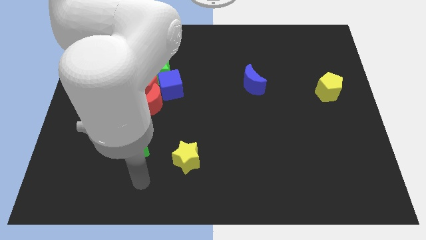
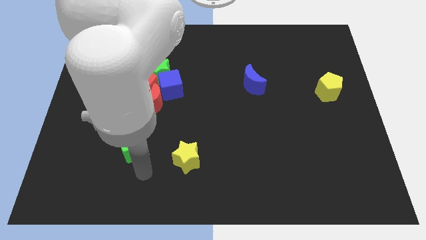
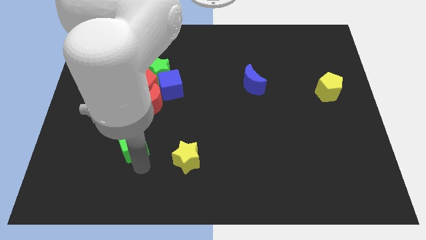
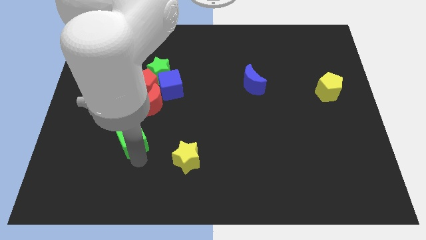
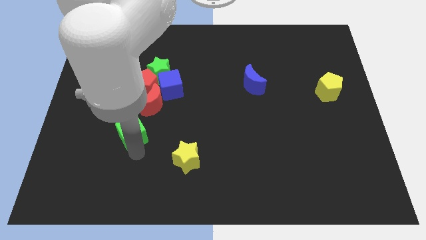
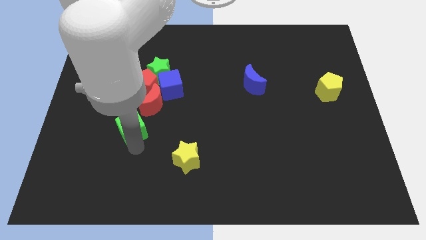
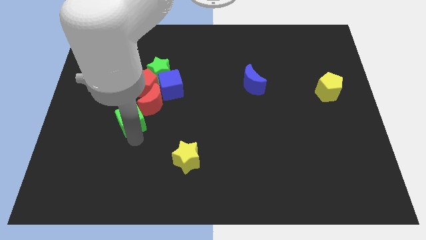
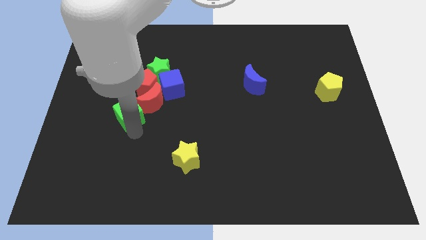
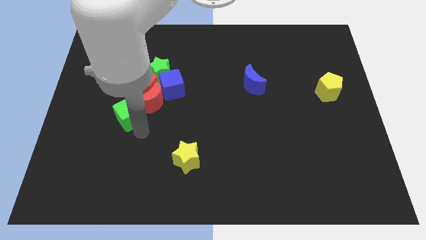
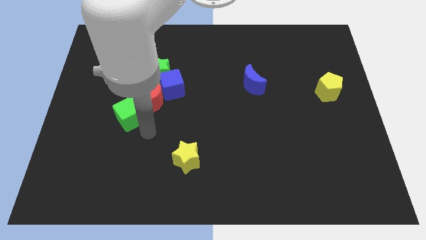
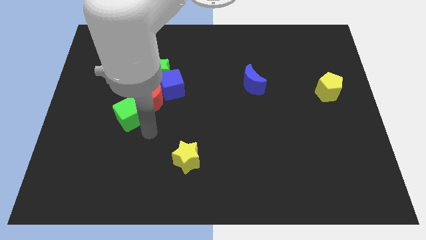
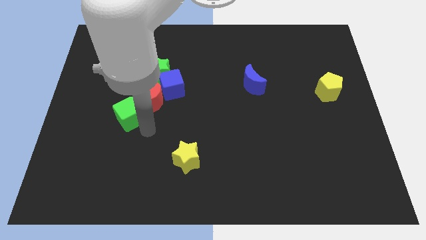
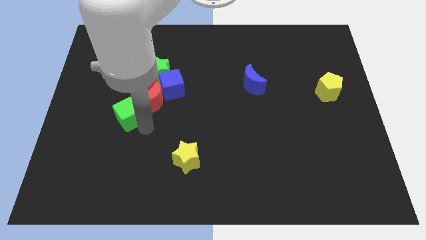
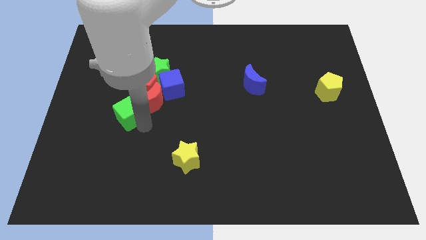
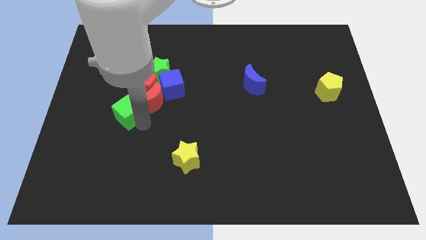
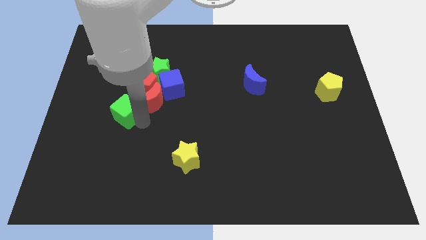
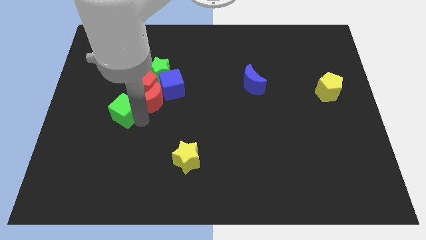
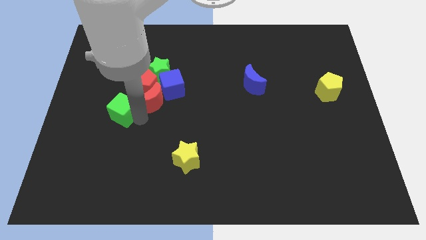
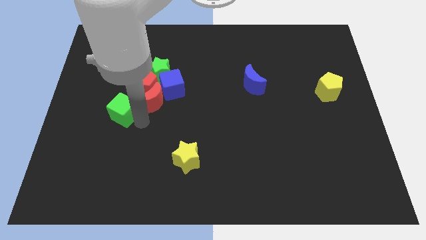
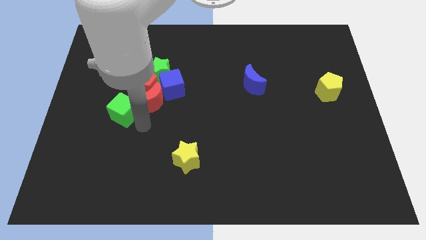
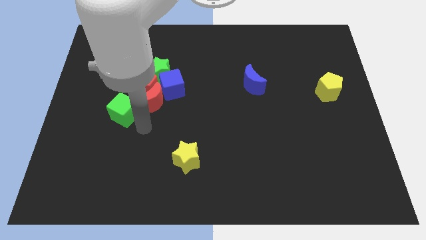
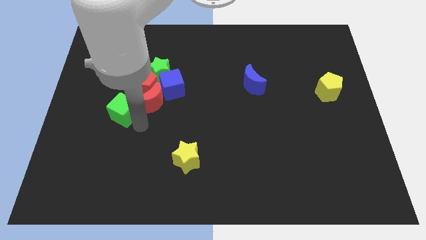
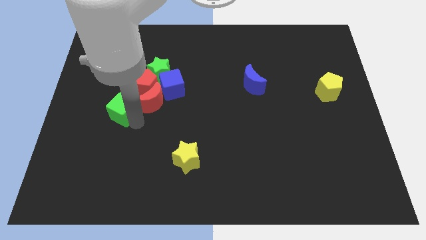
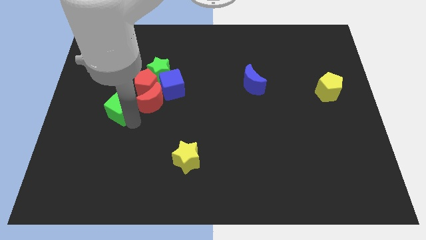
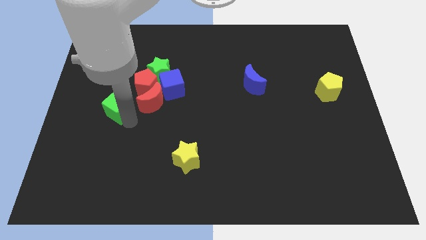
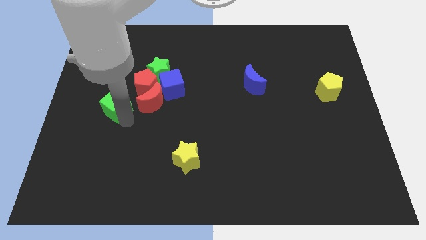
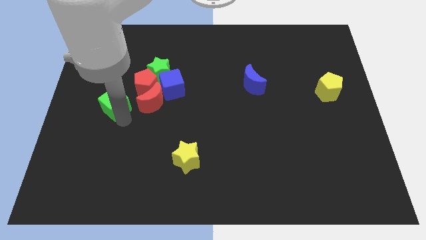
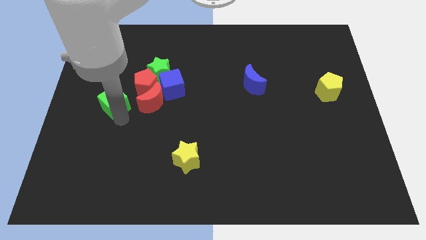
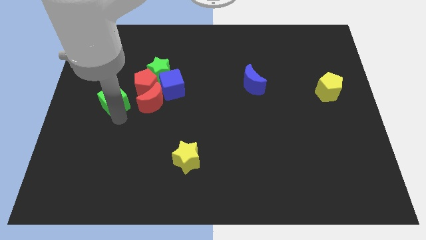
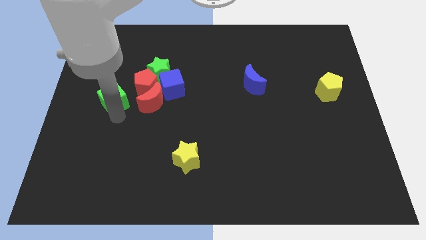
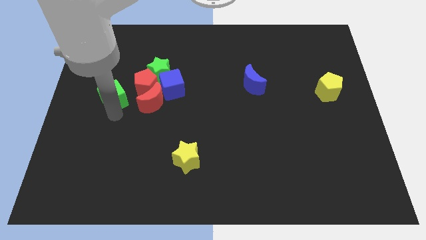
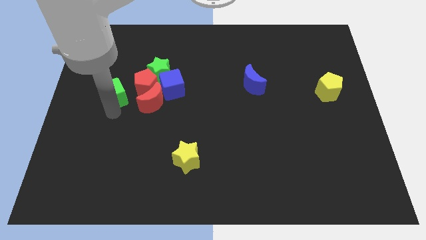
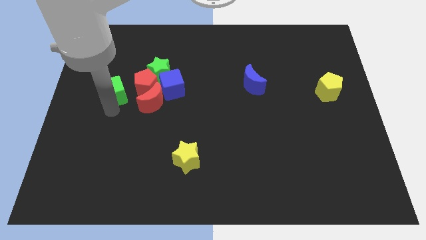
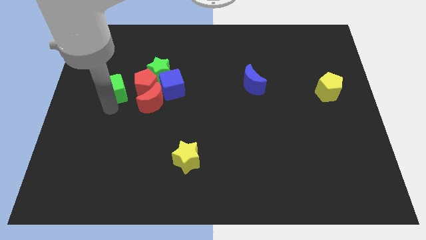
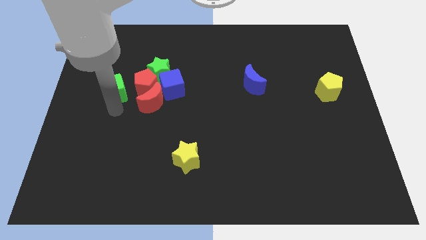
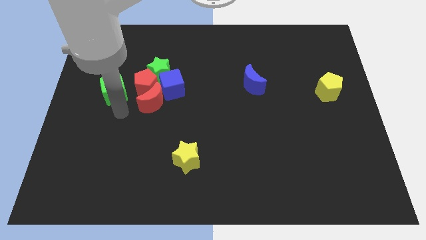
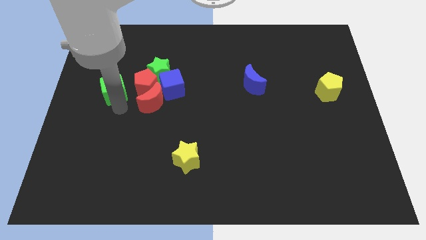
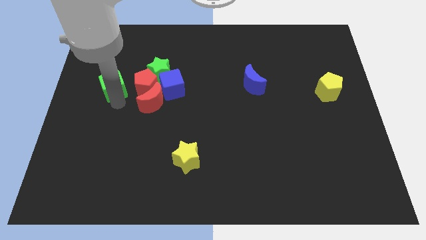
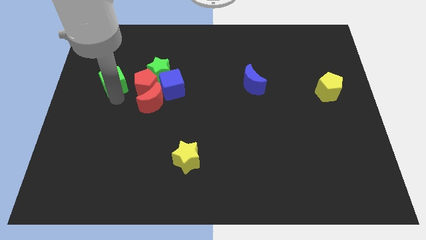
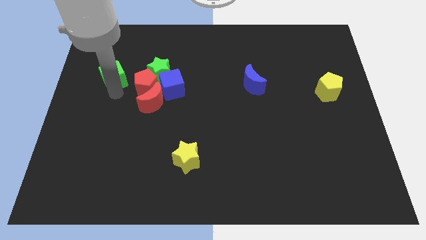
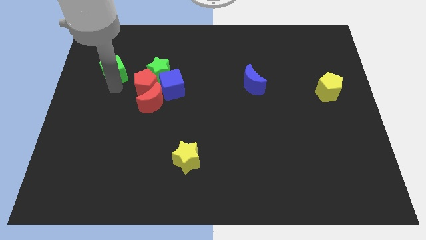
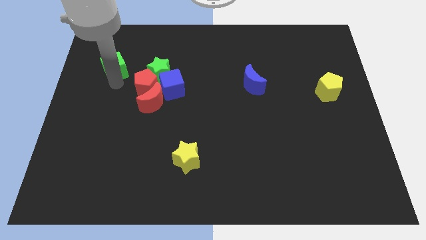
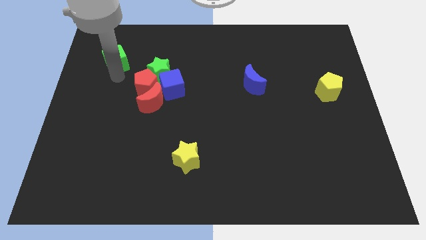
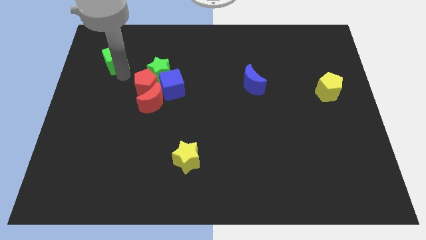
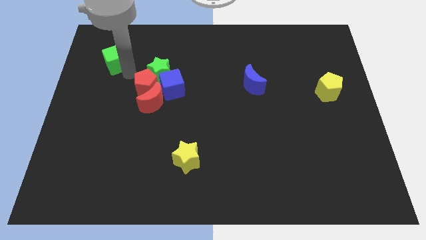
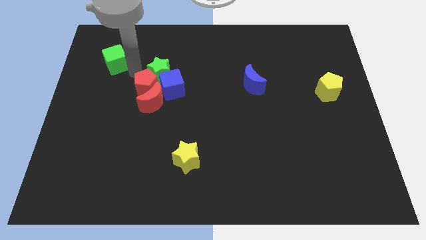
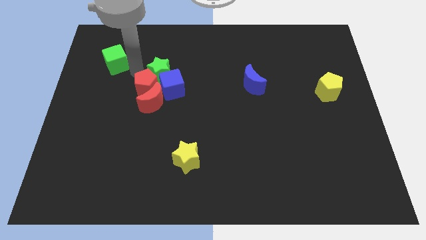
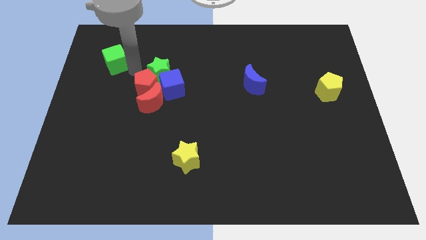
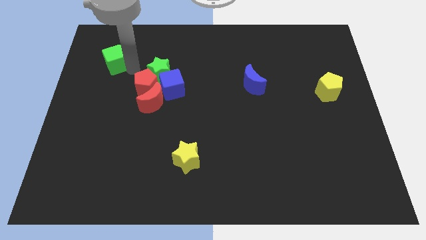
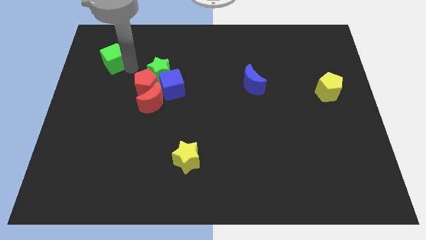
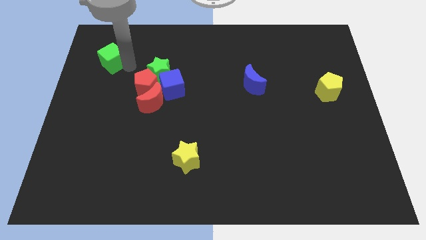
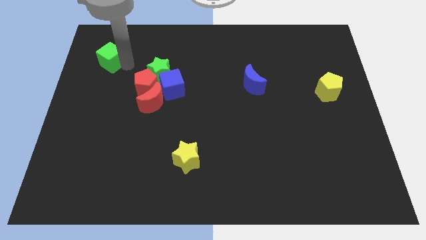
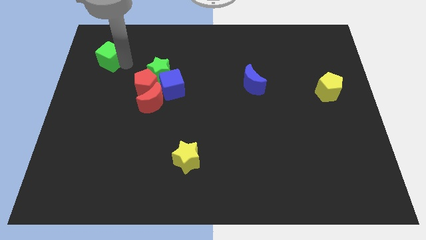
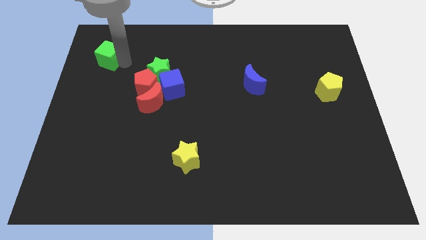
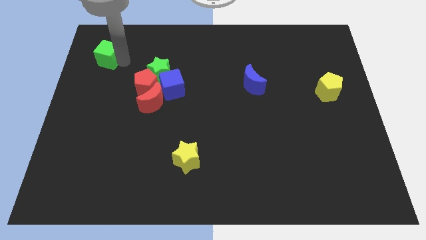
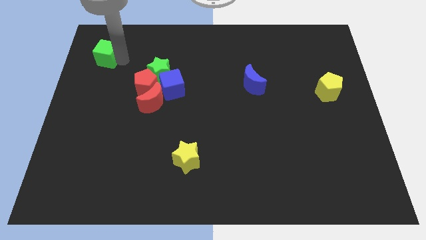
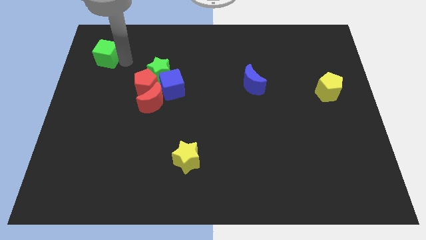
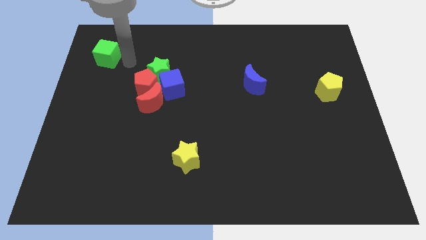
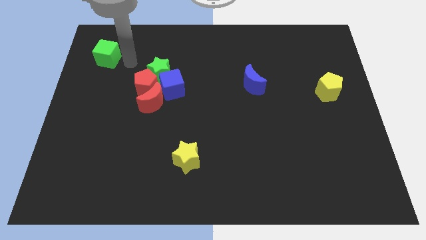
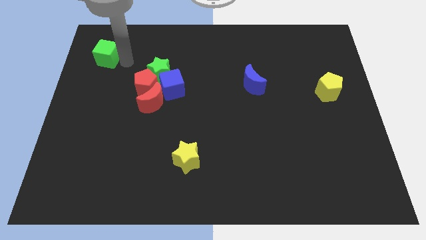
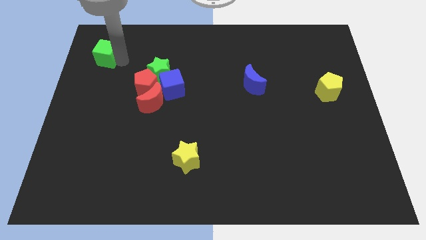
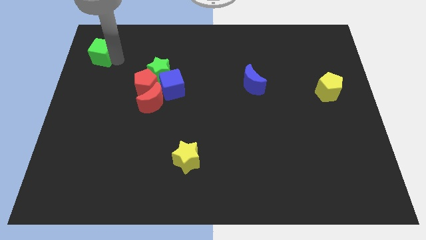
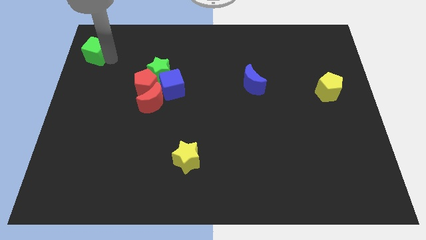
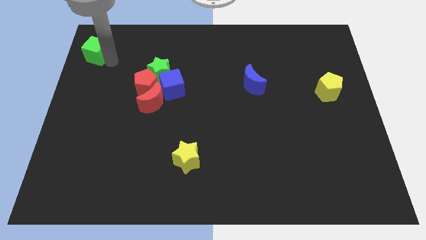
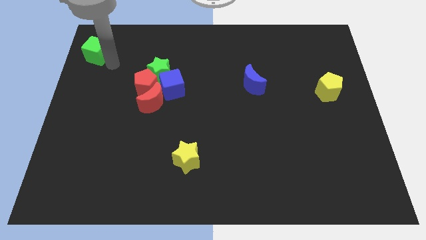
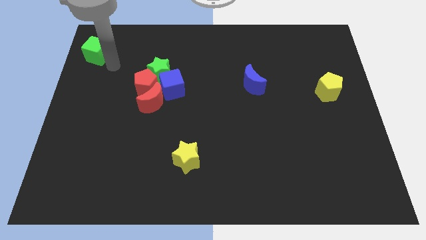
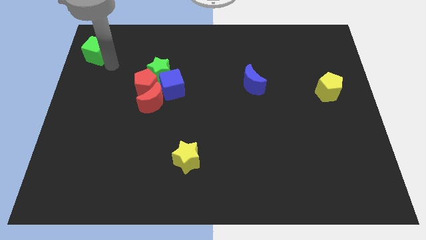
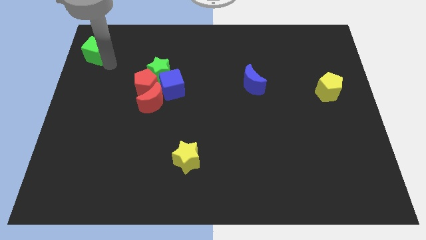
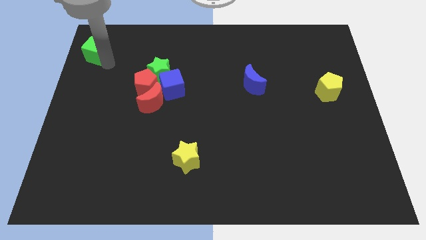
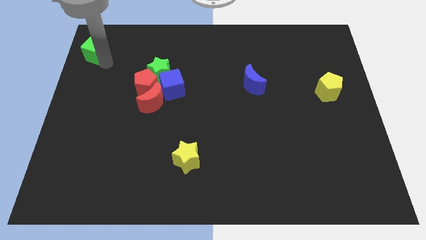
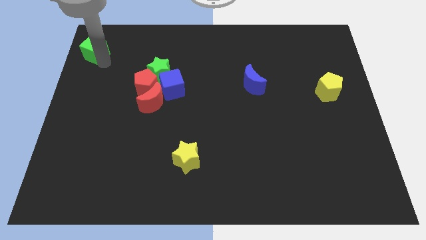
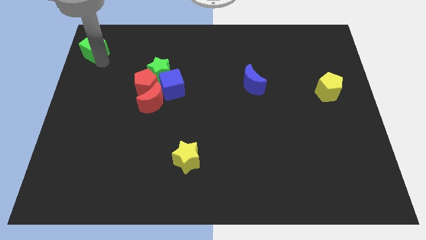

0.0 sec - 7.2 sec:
put the green cube to the upper left corner
